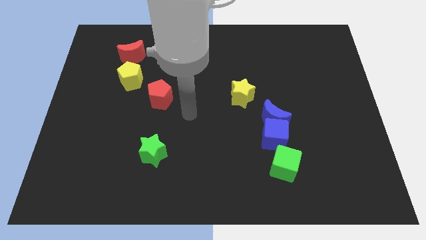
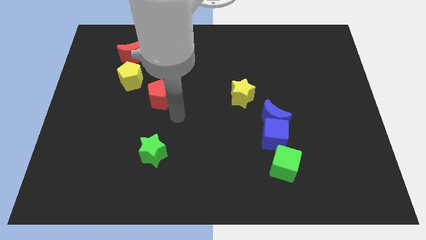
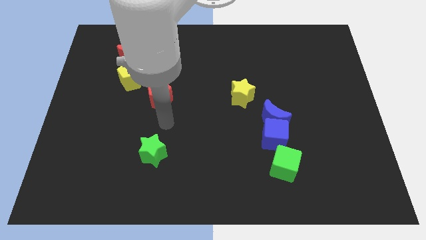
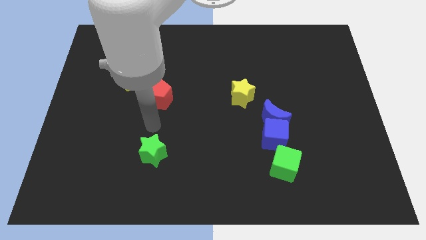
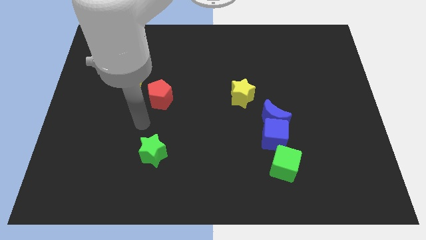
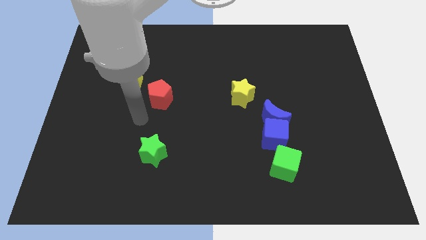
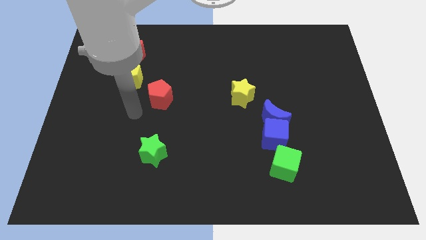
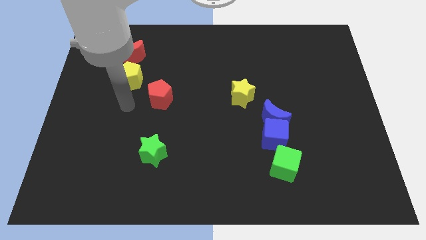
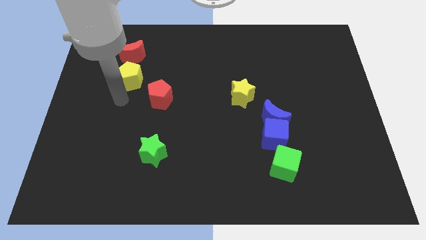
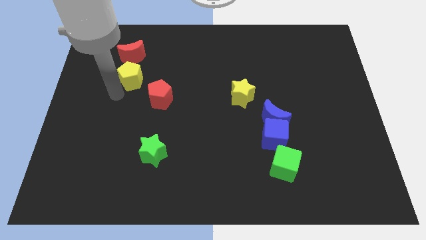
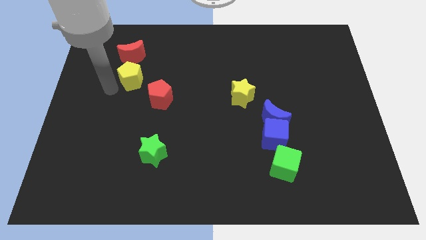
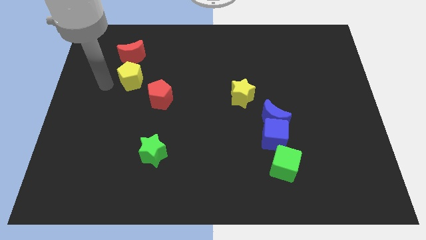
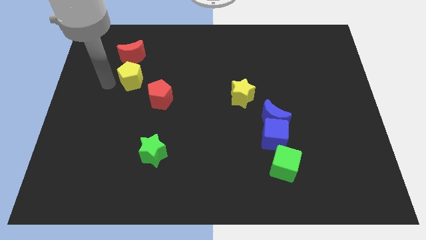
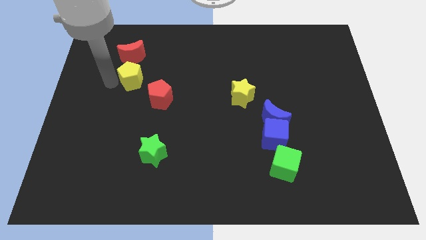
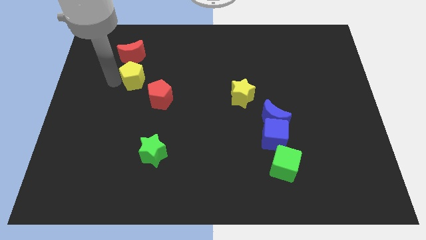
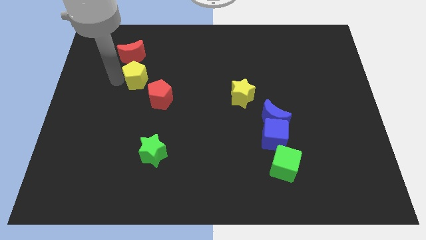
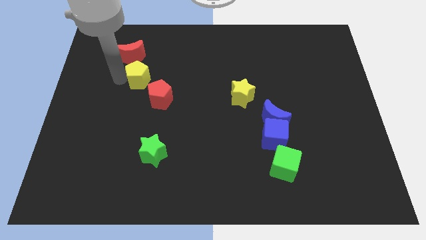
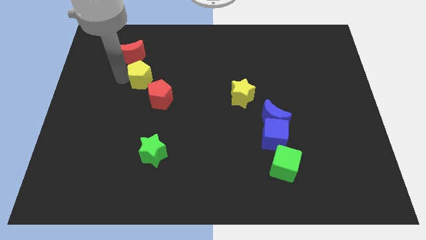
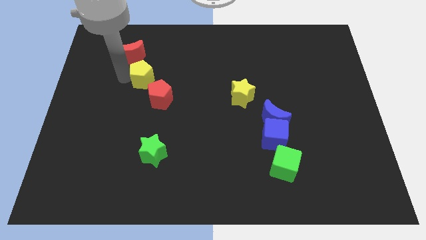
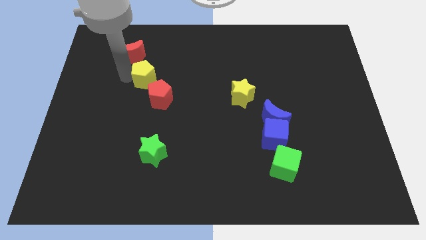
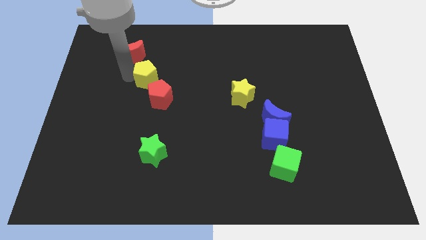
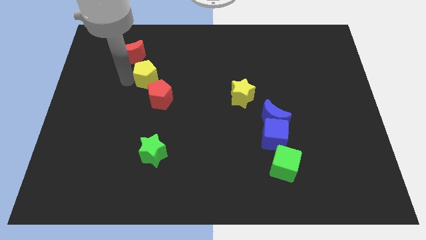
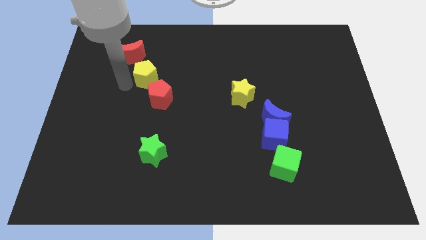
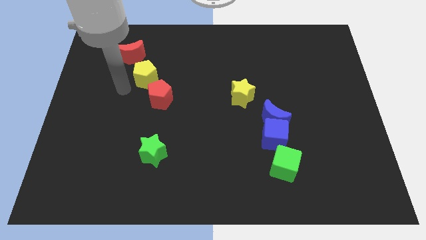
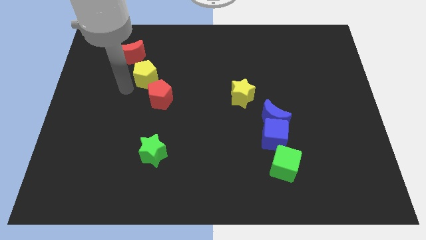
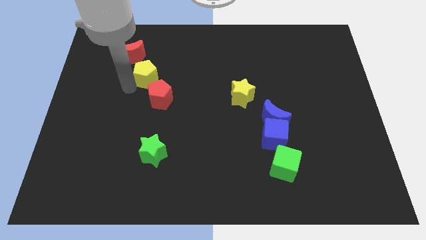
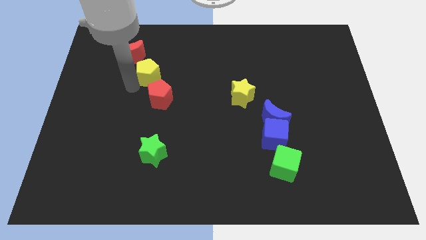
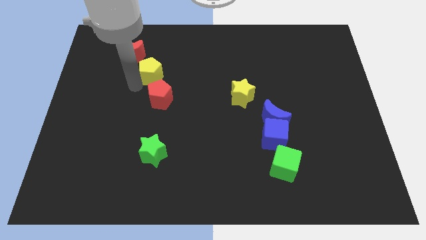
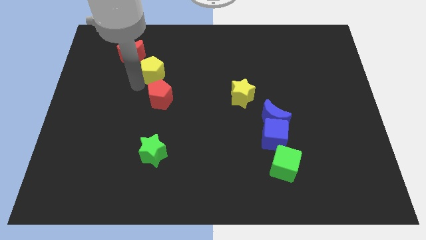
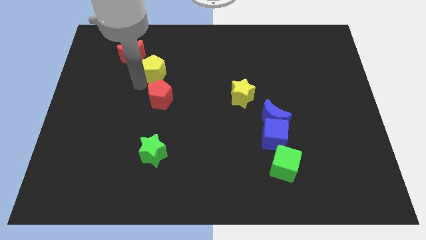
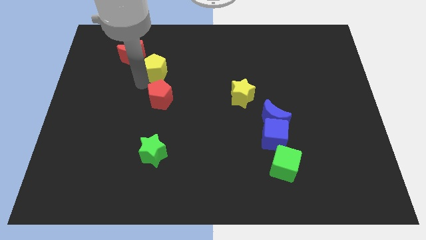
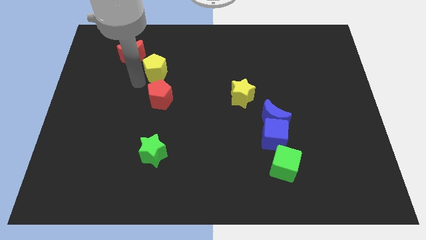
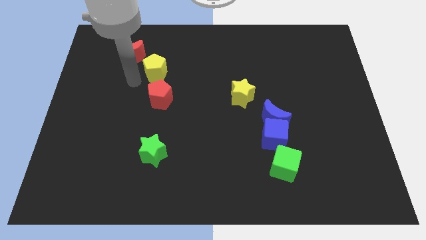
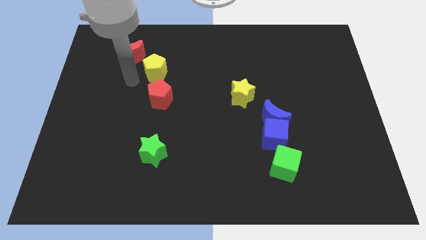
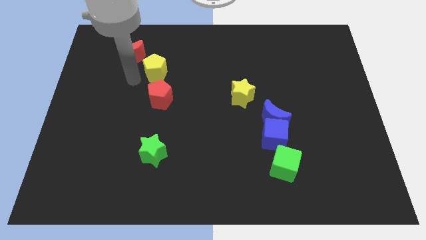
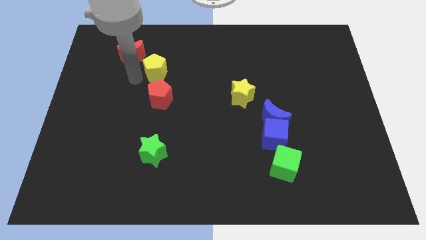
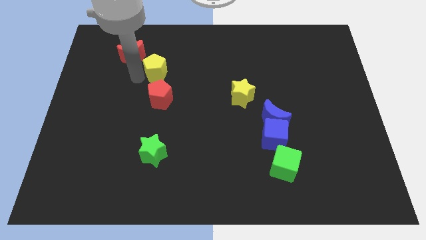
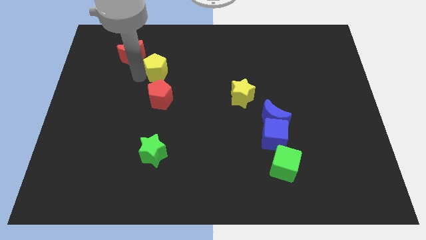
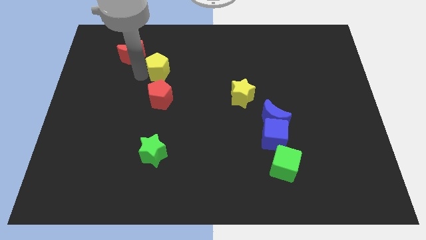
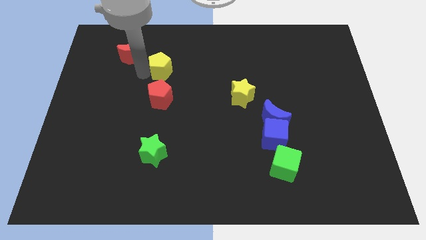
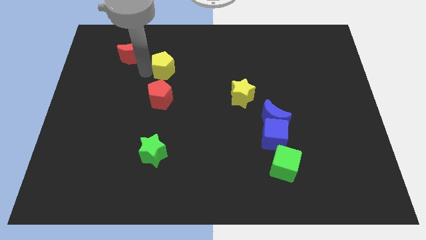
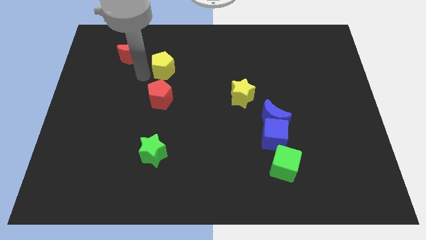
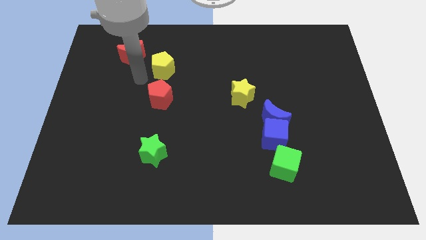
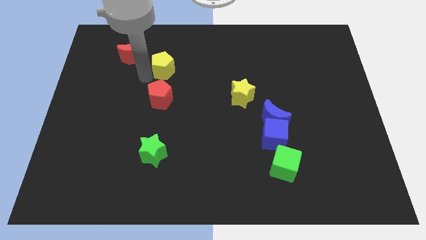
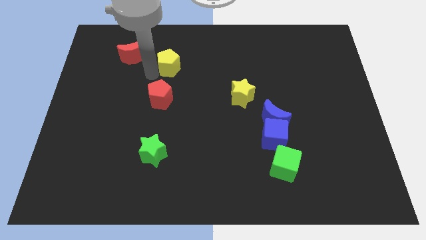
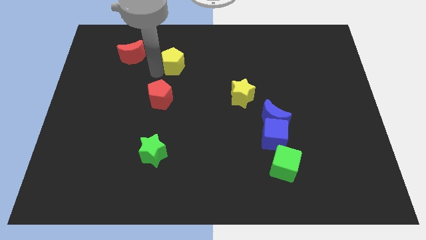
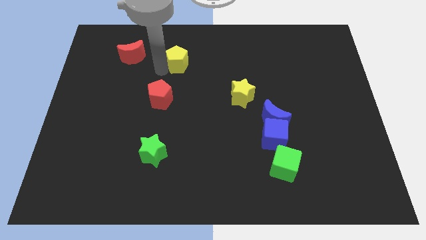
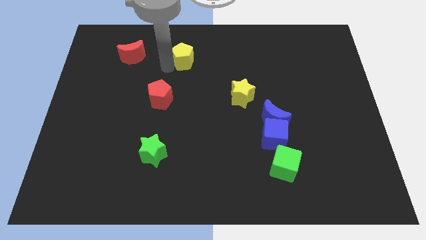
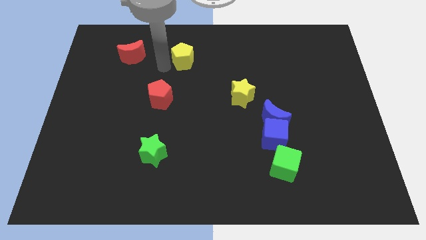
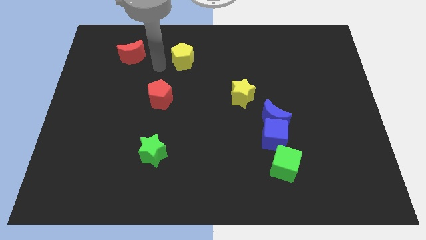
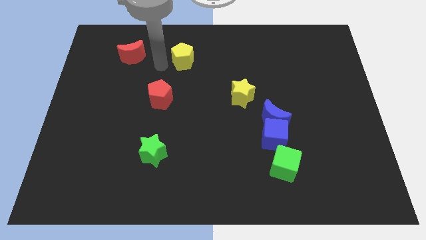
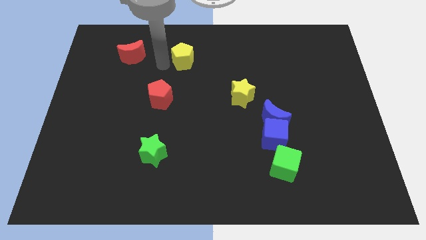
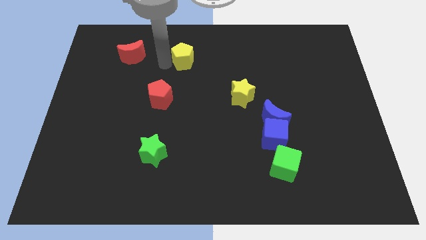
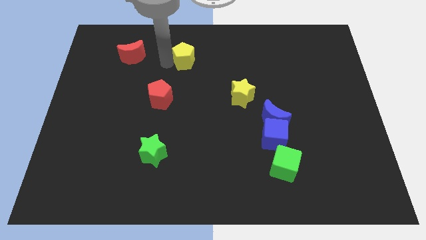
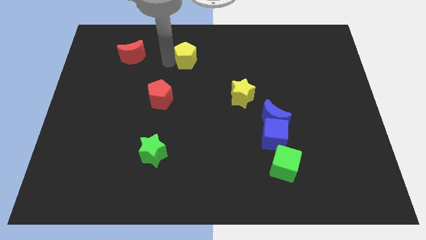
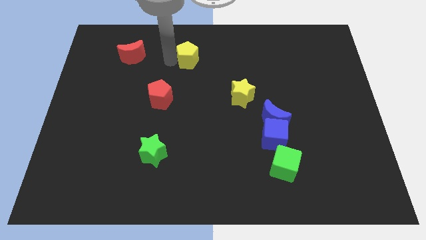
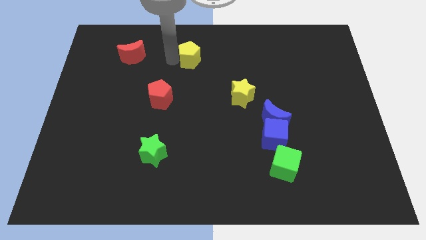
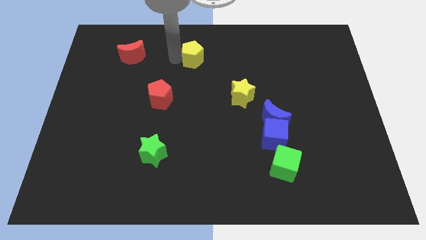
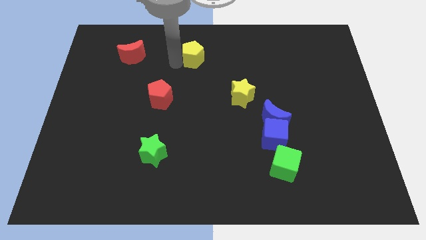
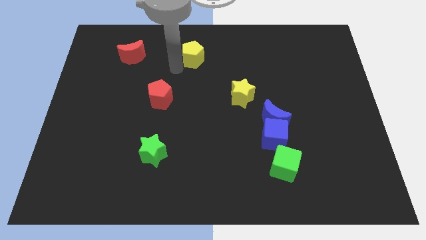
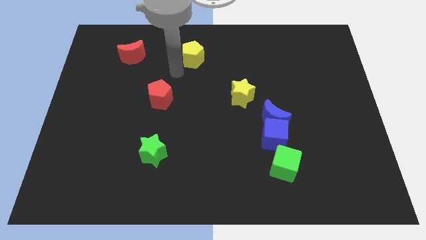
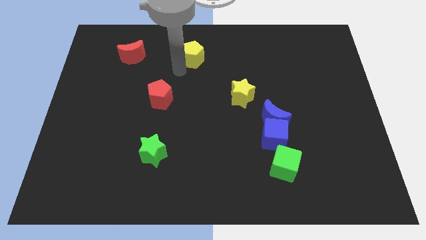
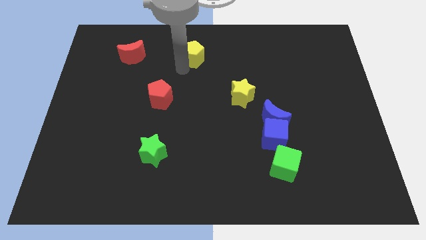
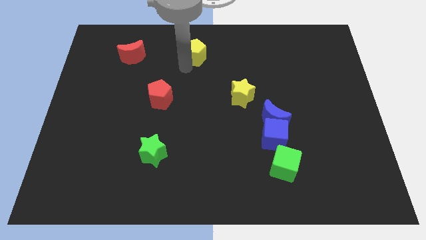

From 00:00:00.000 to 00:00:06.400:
slide the yellow pentagon to the top side
